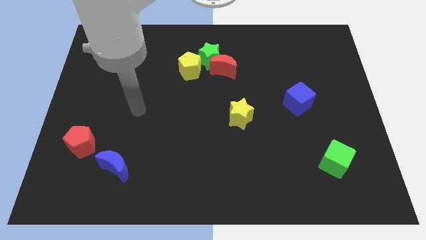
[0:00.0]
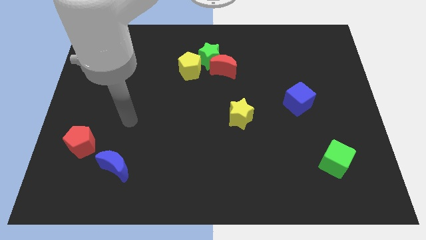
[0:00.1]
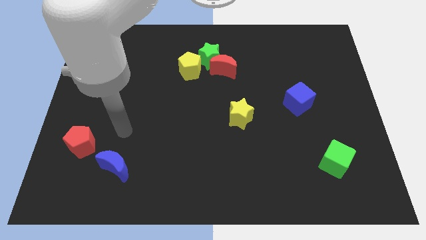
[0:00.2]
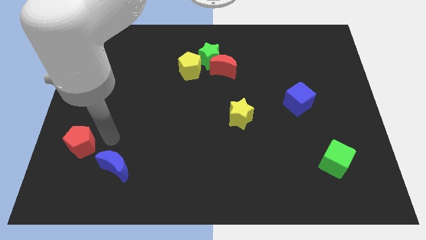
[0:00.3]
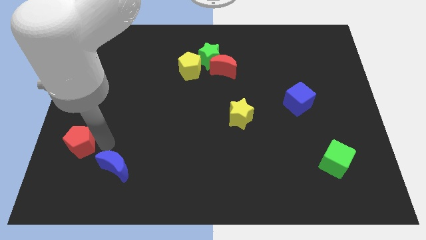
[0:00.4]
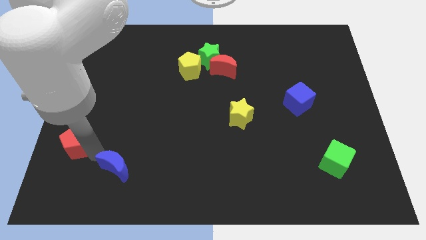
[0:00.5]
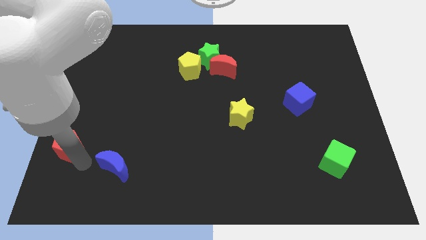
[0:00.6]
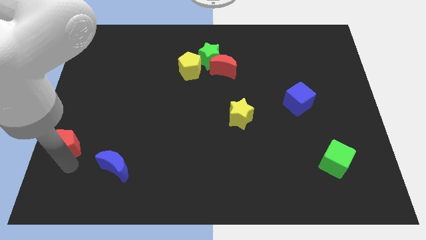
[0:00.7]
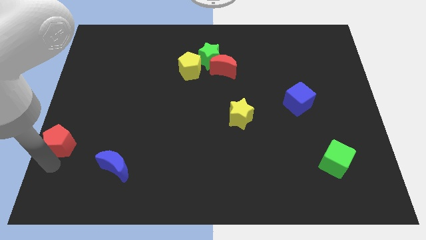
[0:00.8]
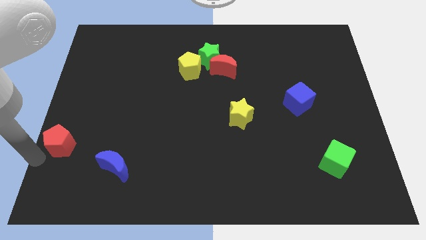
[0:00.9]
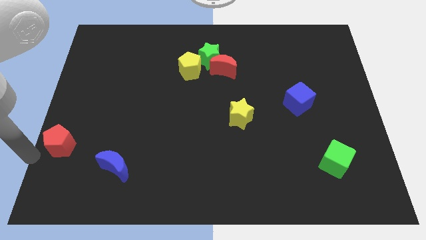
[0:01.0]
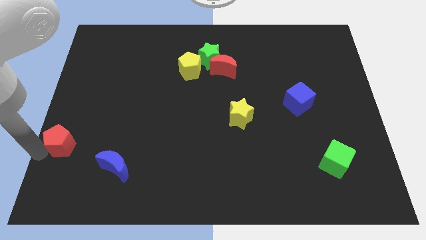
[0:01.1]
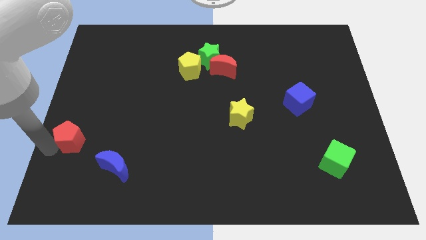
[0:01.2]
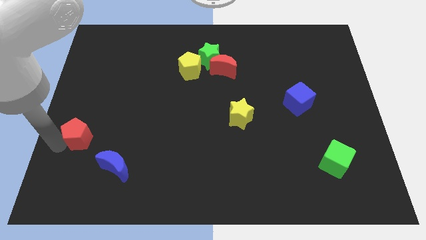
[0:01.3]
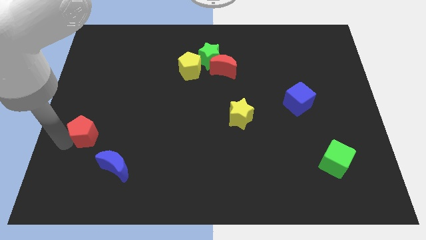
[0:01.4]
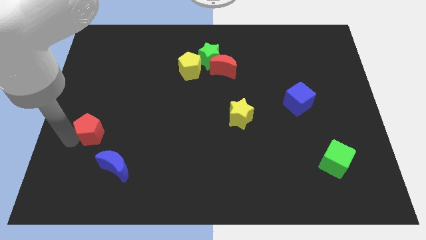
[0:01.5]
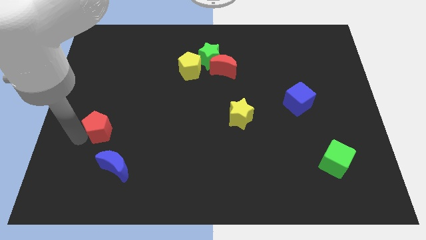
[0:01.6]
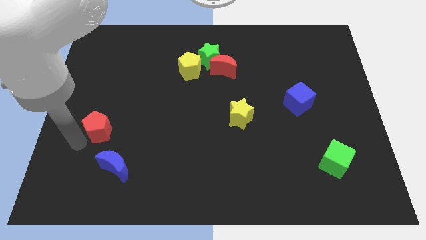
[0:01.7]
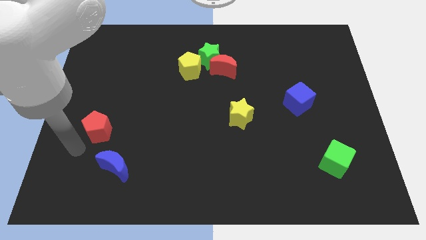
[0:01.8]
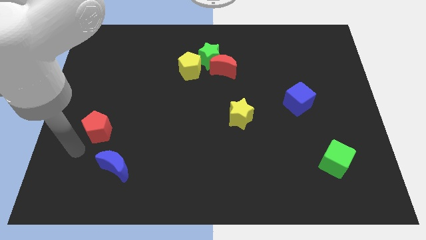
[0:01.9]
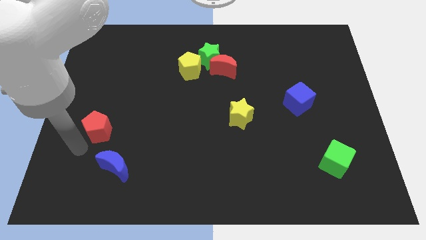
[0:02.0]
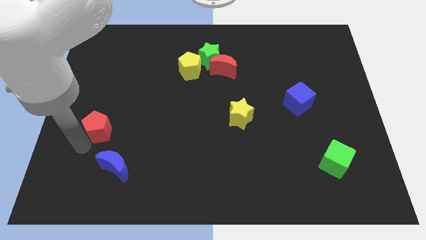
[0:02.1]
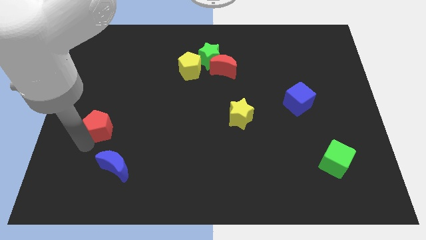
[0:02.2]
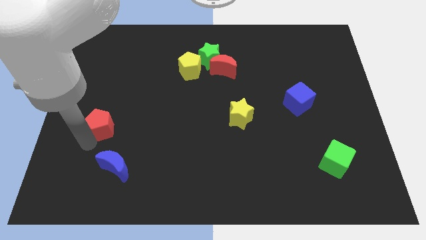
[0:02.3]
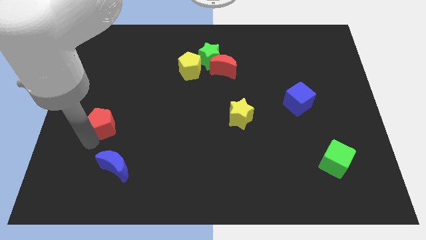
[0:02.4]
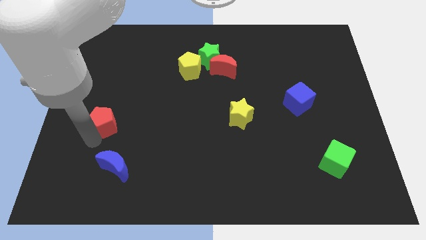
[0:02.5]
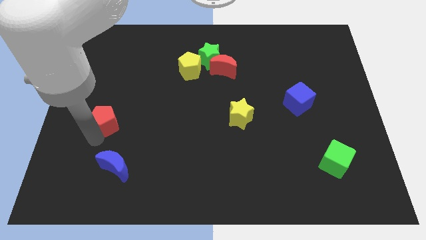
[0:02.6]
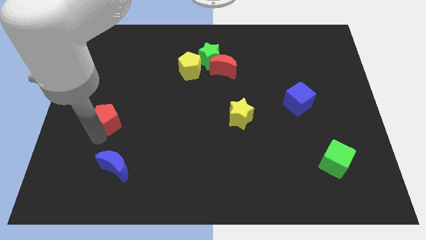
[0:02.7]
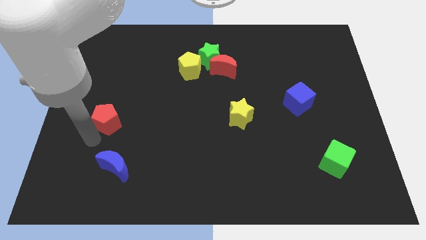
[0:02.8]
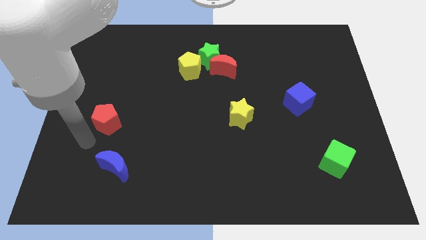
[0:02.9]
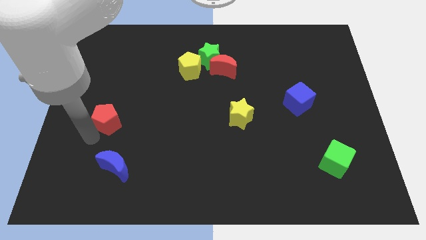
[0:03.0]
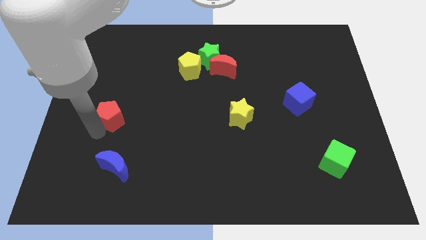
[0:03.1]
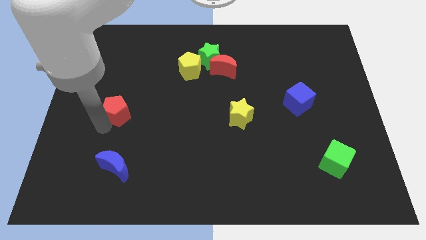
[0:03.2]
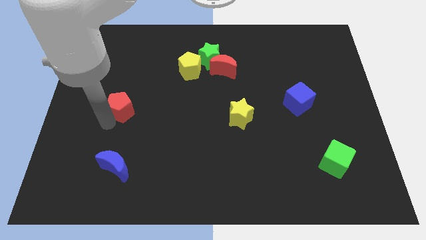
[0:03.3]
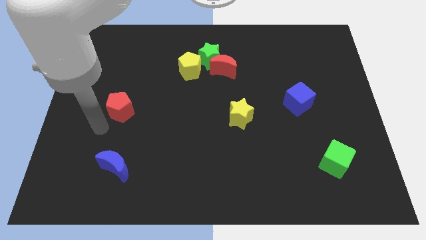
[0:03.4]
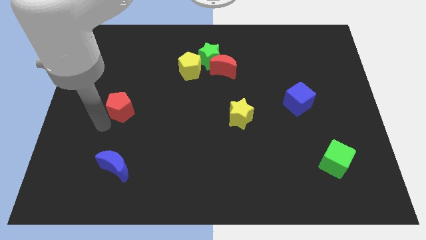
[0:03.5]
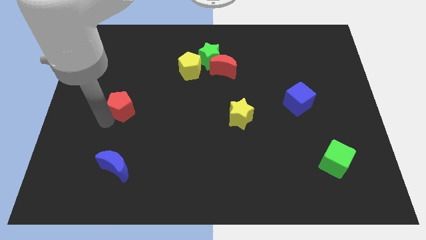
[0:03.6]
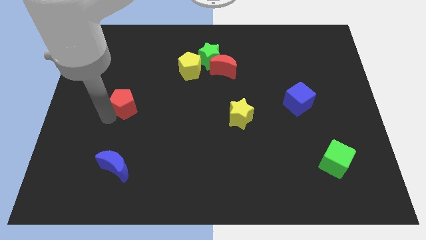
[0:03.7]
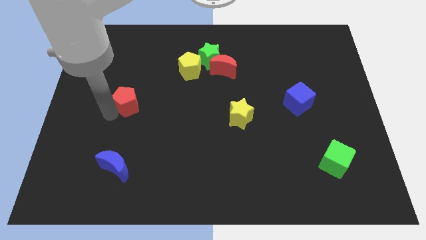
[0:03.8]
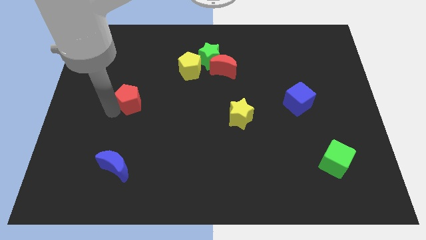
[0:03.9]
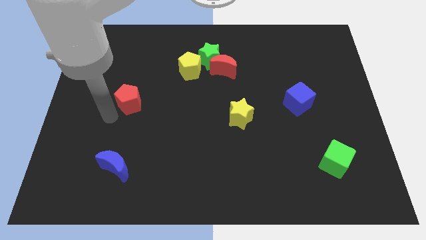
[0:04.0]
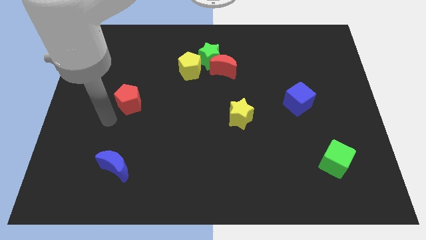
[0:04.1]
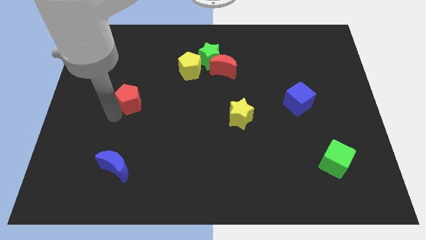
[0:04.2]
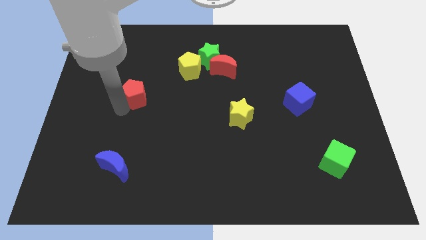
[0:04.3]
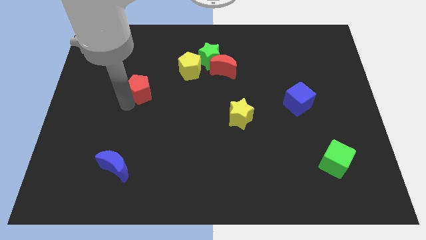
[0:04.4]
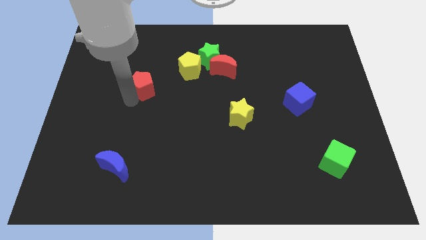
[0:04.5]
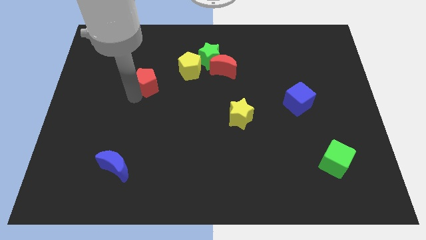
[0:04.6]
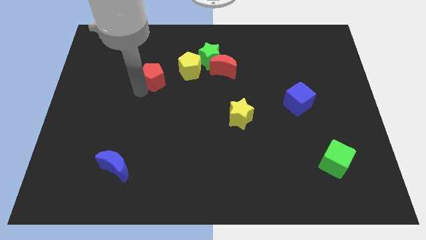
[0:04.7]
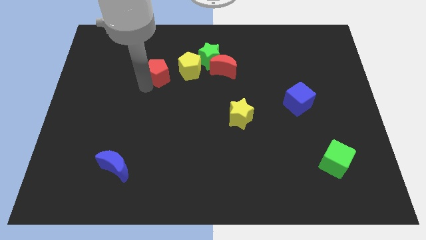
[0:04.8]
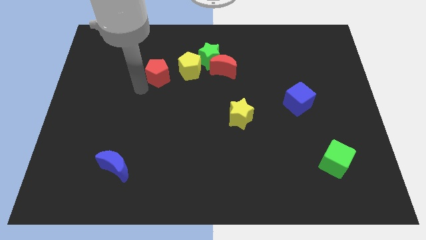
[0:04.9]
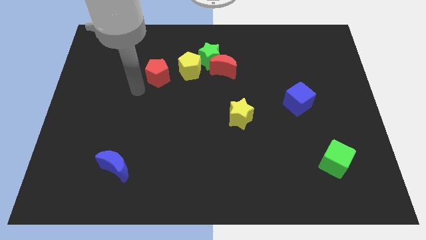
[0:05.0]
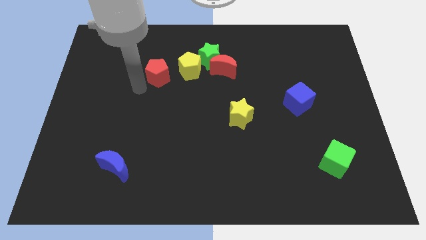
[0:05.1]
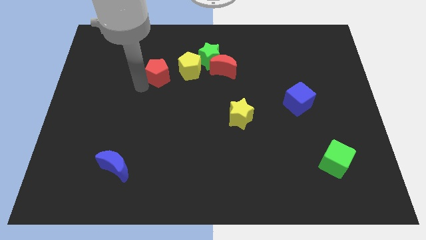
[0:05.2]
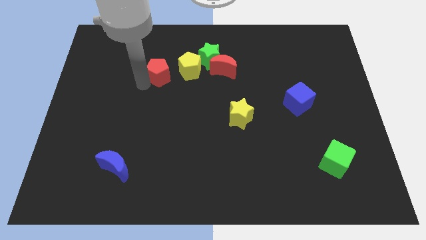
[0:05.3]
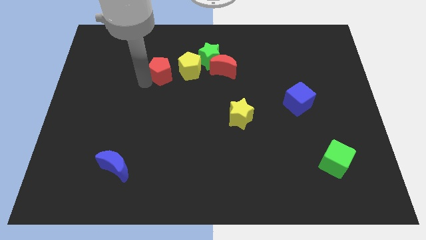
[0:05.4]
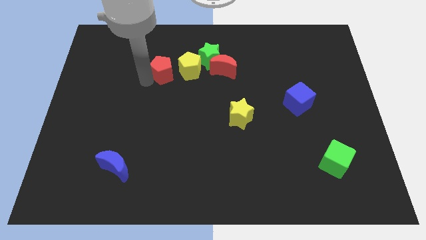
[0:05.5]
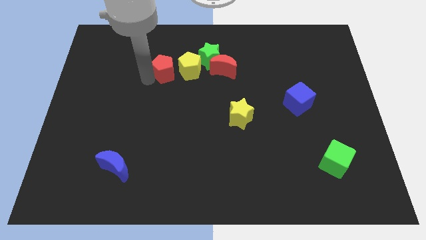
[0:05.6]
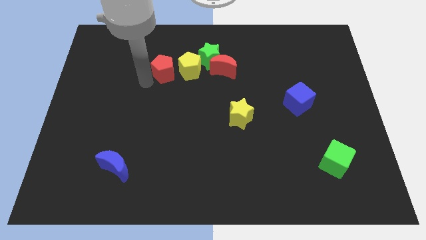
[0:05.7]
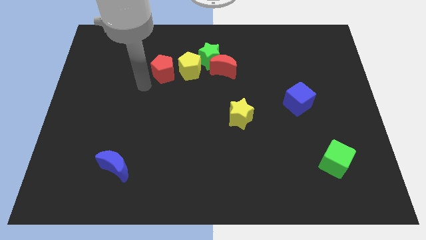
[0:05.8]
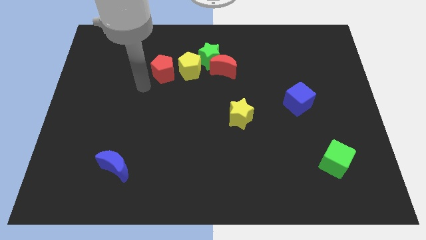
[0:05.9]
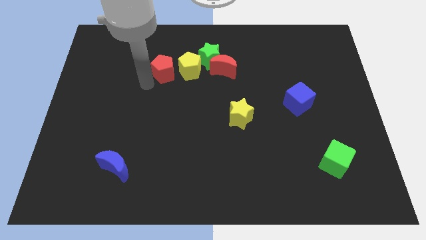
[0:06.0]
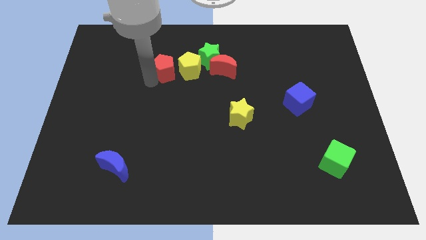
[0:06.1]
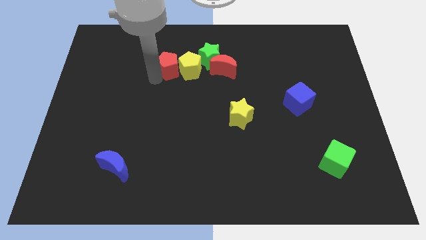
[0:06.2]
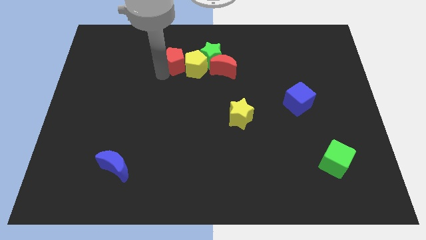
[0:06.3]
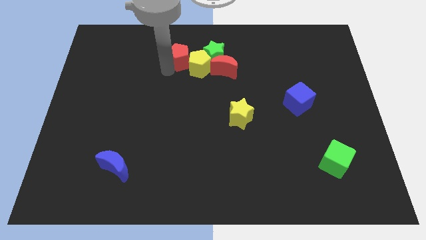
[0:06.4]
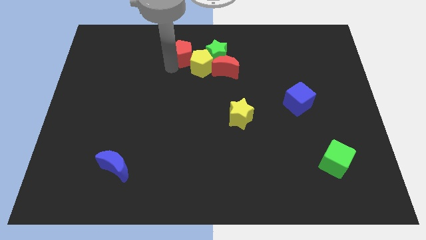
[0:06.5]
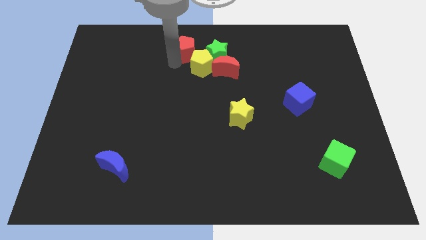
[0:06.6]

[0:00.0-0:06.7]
put the red pentagon to the top left of the red moon
